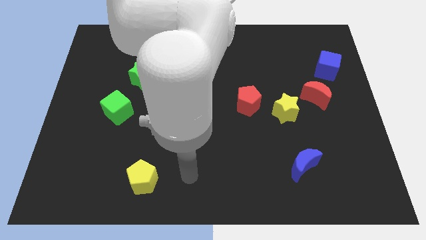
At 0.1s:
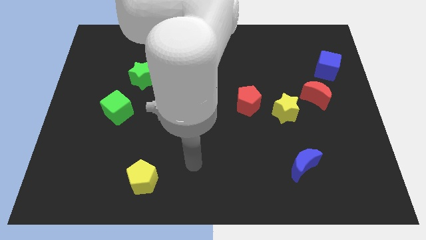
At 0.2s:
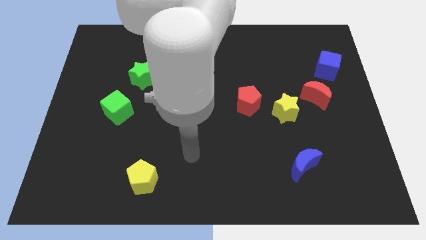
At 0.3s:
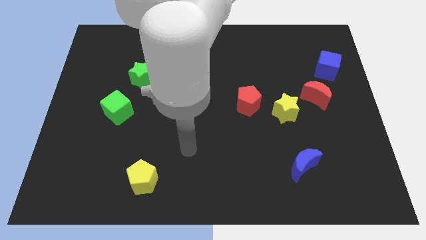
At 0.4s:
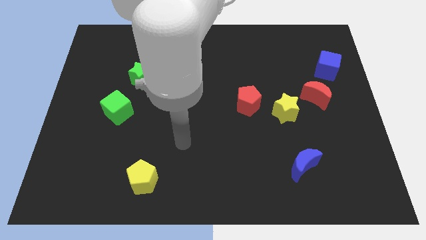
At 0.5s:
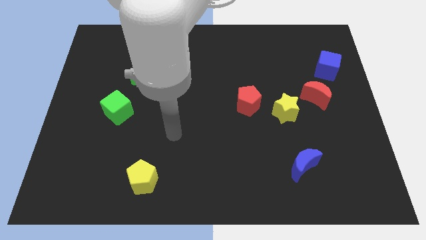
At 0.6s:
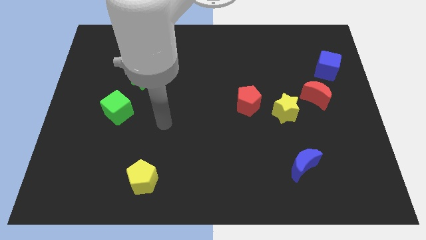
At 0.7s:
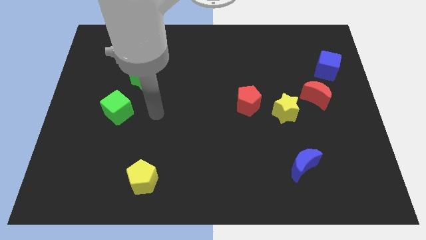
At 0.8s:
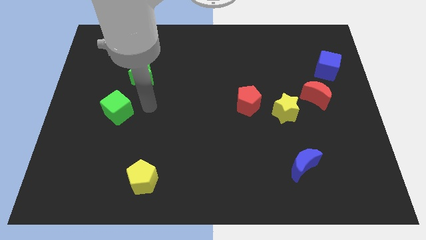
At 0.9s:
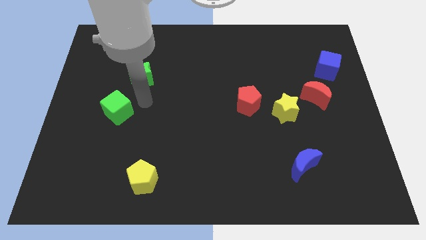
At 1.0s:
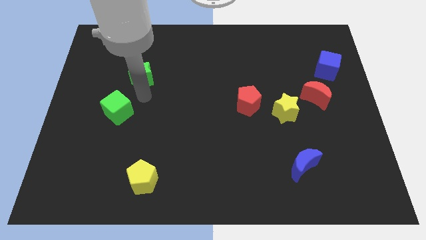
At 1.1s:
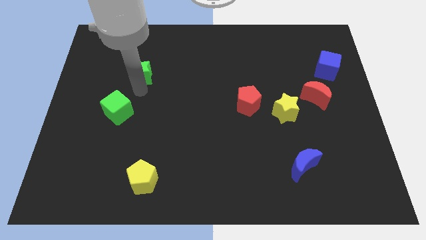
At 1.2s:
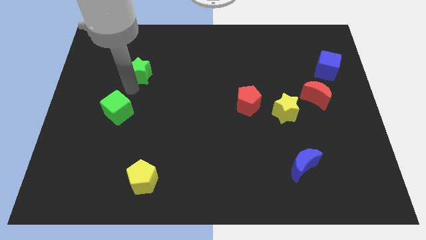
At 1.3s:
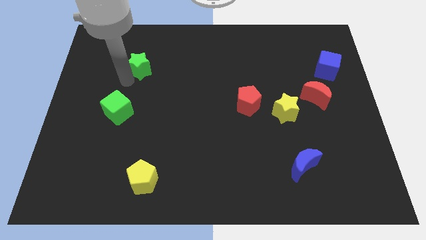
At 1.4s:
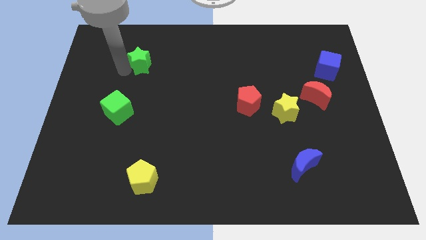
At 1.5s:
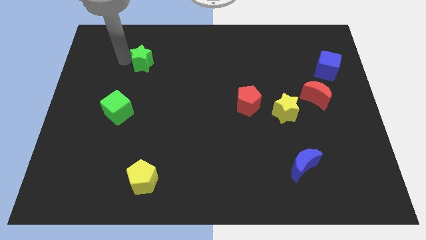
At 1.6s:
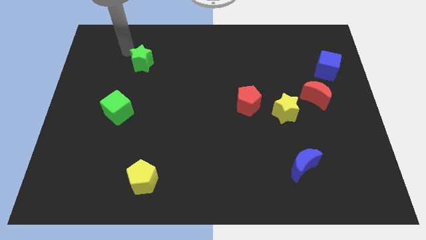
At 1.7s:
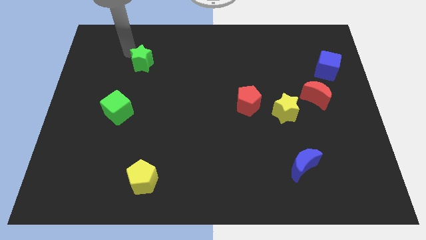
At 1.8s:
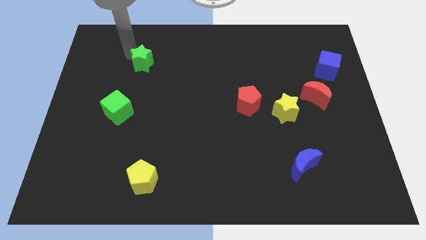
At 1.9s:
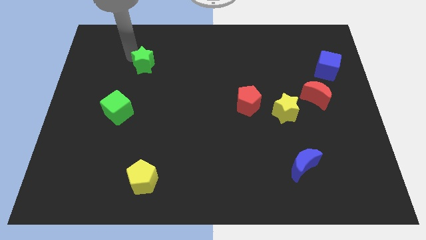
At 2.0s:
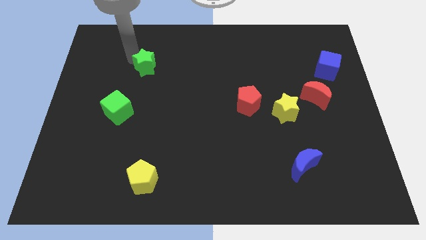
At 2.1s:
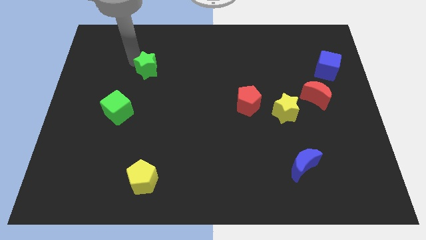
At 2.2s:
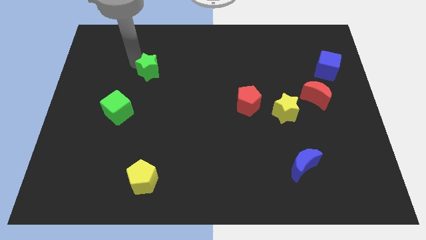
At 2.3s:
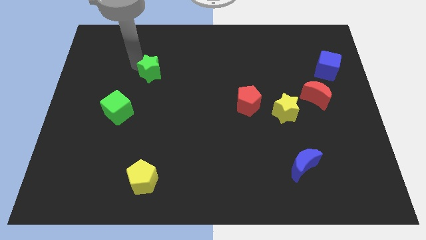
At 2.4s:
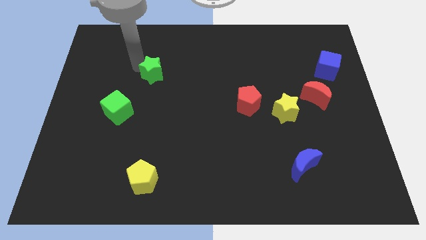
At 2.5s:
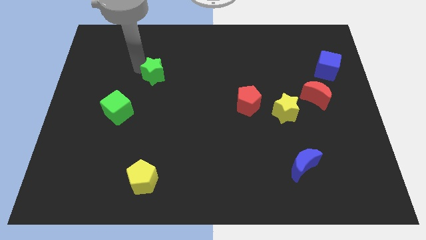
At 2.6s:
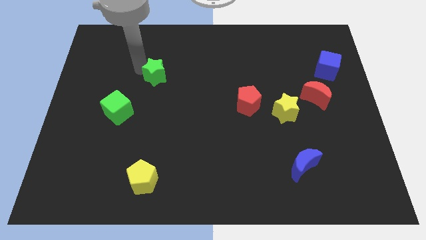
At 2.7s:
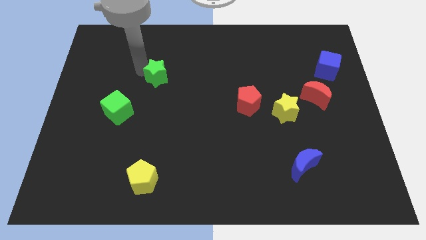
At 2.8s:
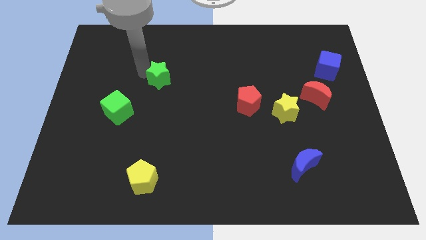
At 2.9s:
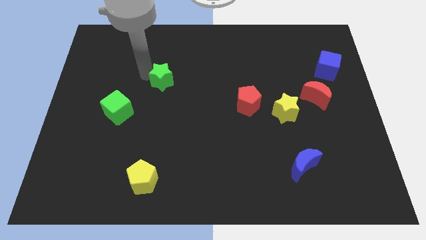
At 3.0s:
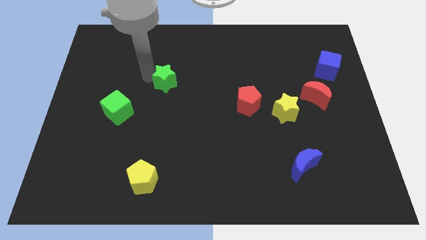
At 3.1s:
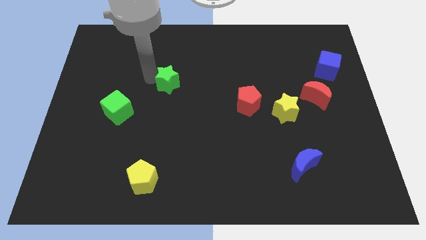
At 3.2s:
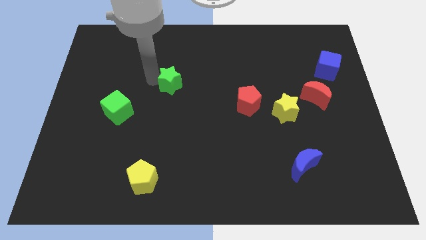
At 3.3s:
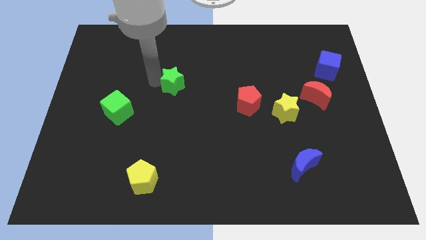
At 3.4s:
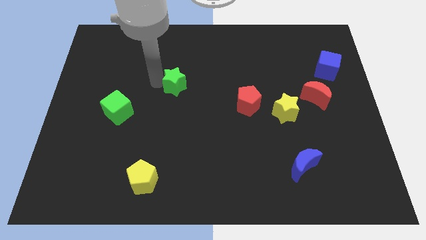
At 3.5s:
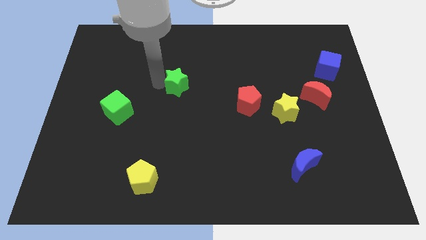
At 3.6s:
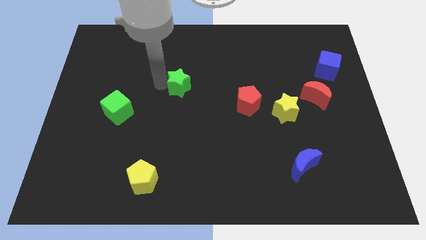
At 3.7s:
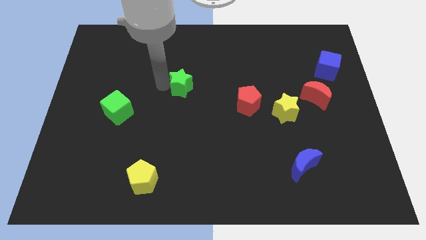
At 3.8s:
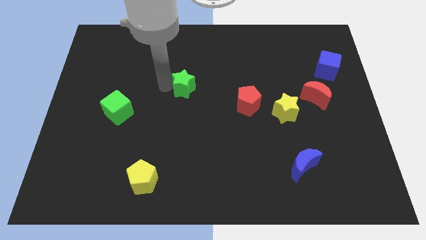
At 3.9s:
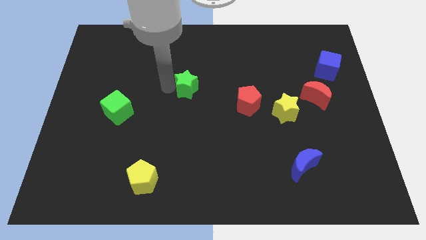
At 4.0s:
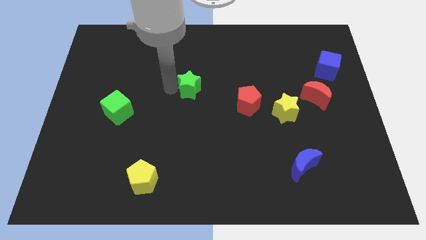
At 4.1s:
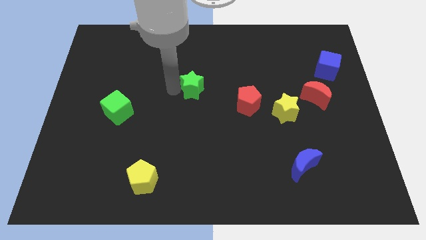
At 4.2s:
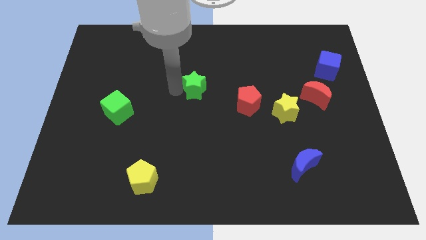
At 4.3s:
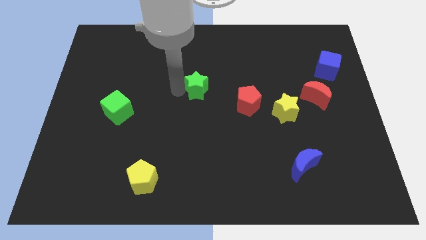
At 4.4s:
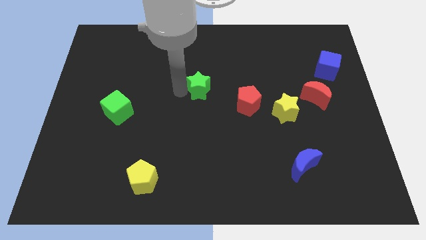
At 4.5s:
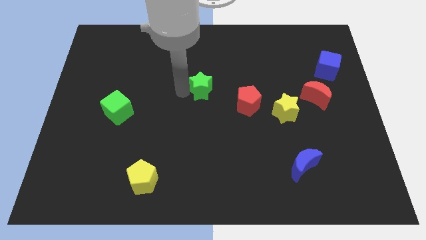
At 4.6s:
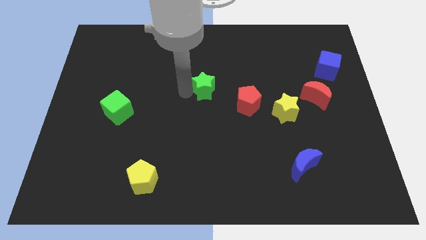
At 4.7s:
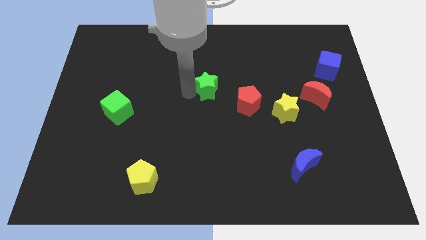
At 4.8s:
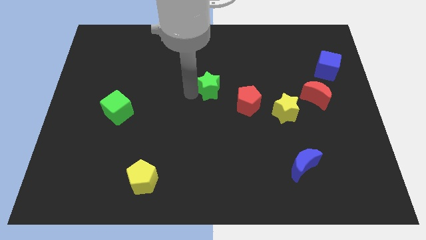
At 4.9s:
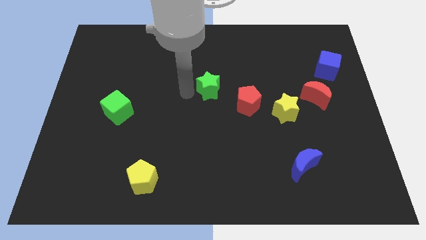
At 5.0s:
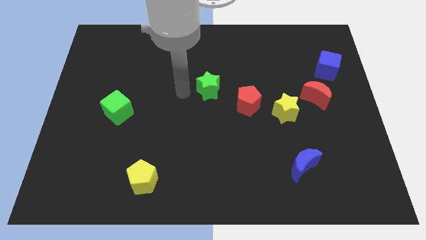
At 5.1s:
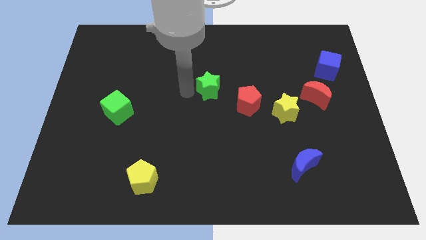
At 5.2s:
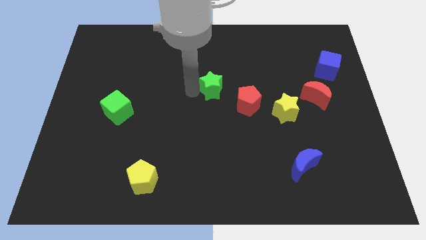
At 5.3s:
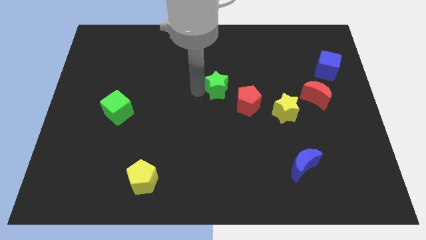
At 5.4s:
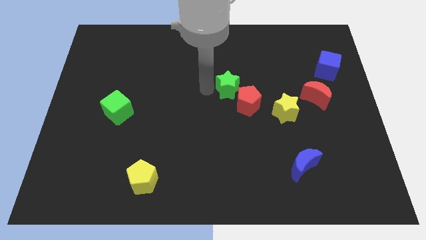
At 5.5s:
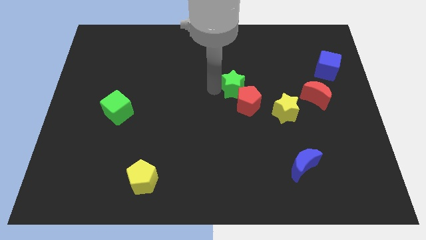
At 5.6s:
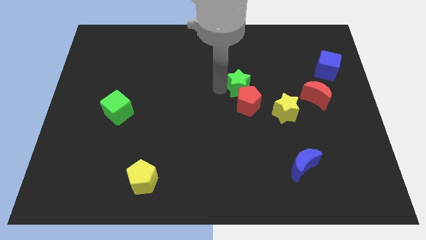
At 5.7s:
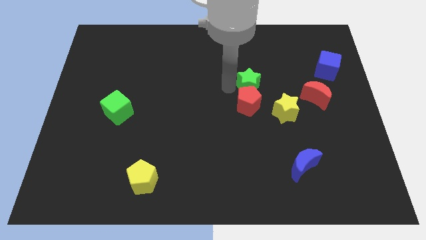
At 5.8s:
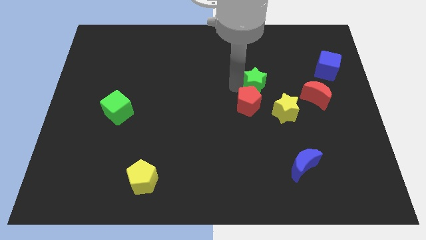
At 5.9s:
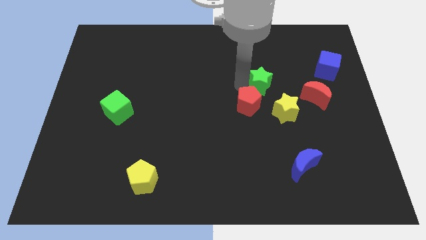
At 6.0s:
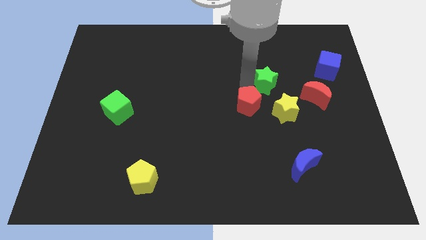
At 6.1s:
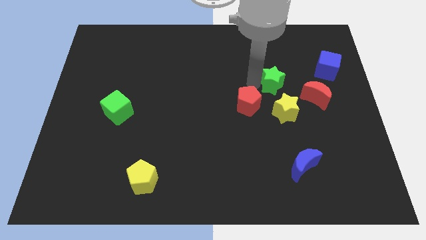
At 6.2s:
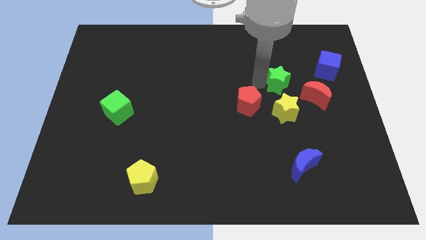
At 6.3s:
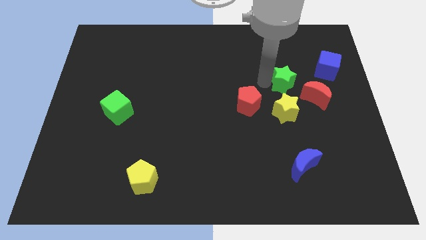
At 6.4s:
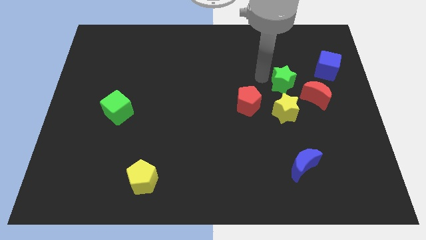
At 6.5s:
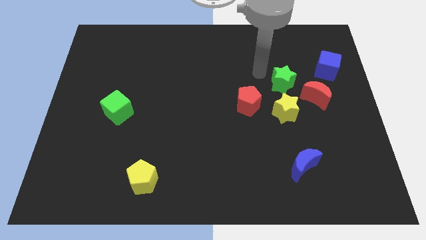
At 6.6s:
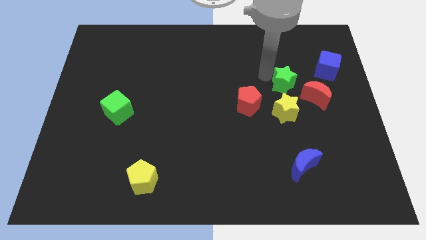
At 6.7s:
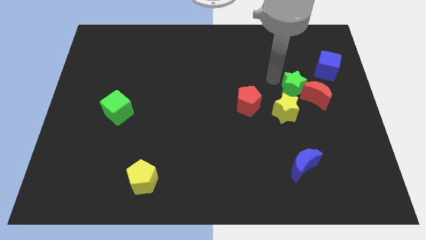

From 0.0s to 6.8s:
put the green star close to the red moon

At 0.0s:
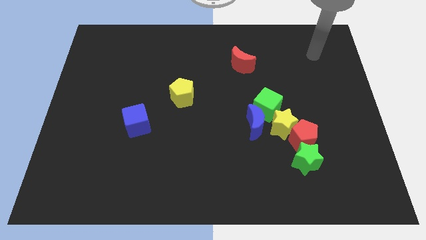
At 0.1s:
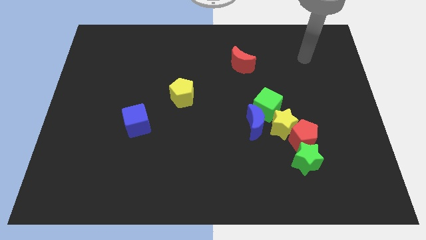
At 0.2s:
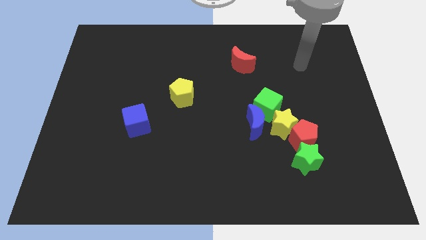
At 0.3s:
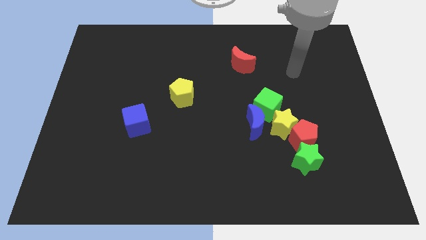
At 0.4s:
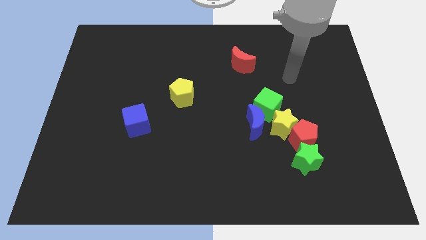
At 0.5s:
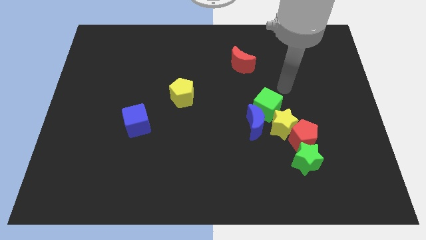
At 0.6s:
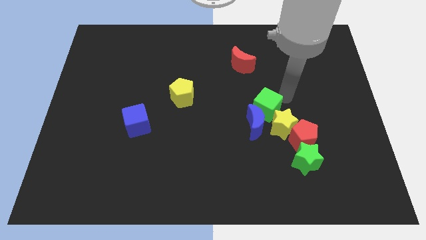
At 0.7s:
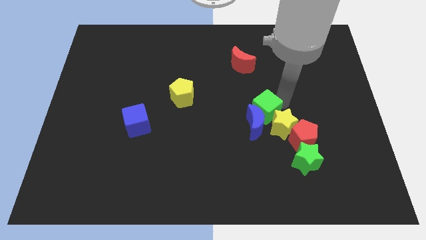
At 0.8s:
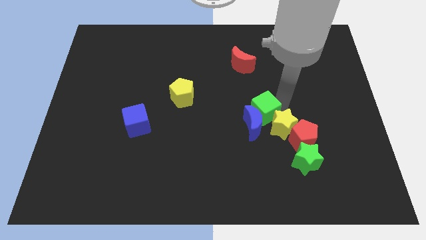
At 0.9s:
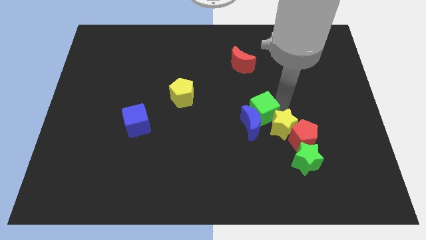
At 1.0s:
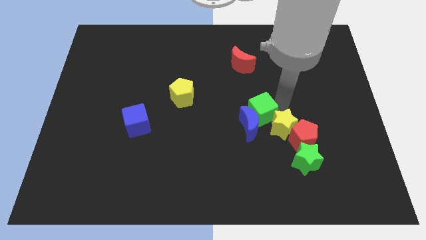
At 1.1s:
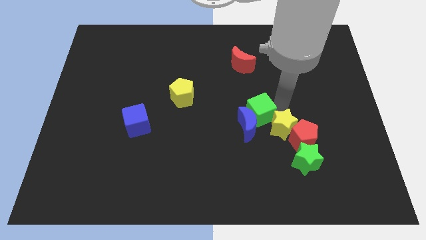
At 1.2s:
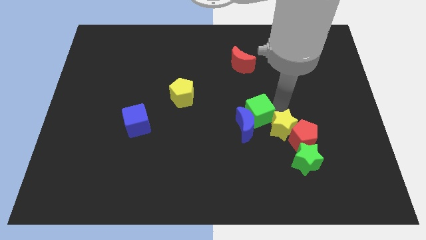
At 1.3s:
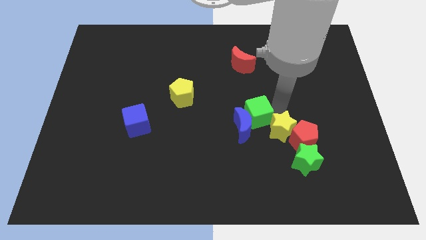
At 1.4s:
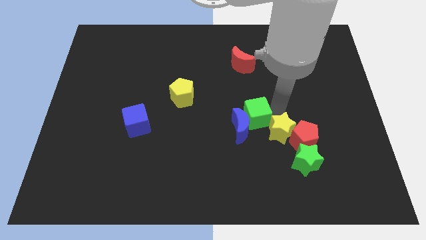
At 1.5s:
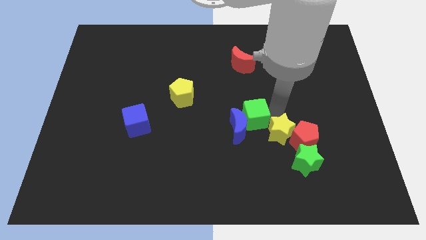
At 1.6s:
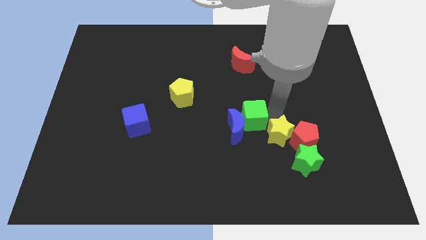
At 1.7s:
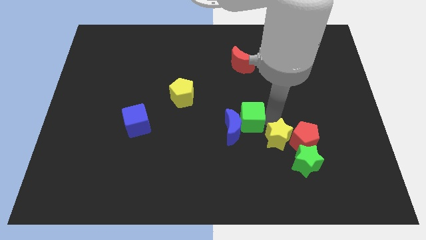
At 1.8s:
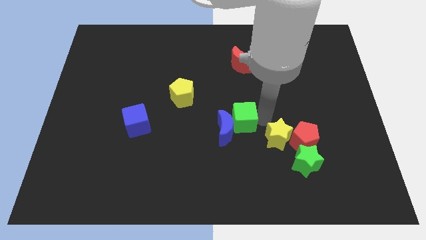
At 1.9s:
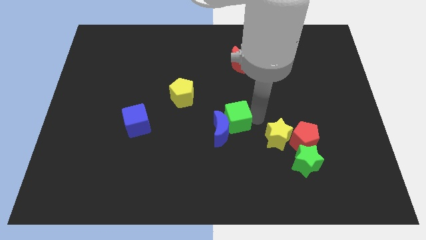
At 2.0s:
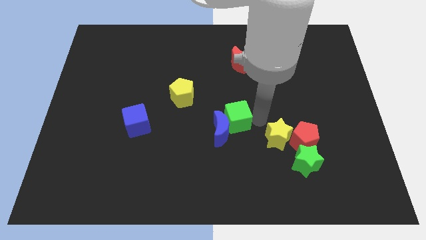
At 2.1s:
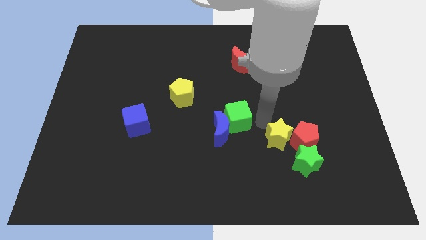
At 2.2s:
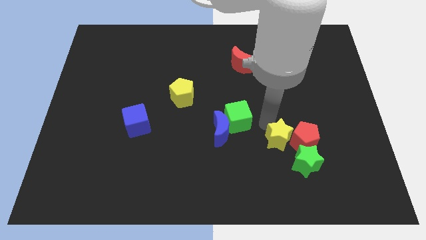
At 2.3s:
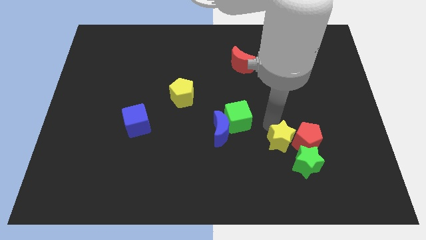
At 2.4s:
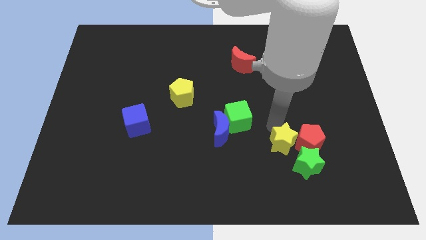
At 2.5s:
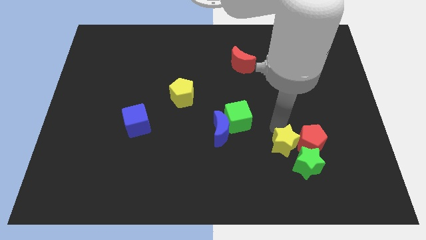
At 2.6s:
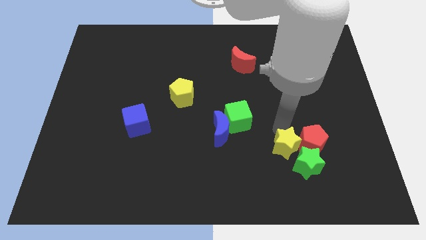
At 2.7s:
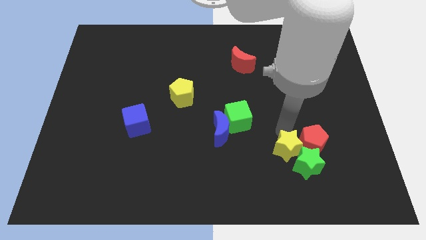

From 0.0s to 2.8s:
move the yellow star to the green star
